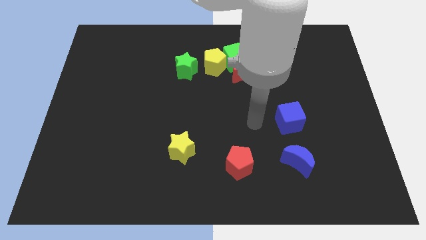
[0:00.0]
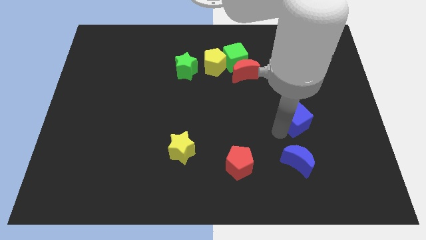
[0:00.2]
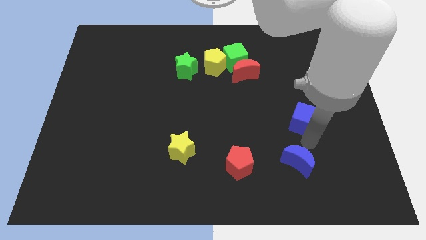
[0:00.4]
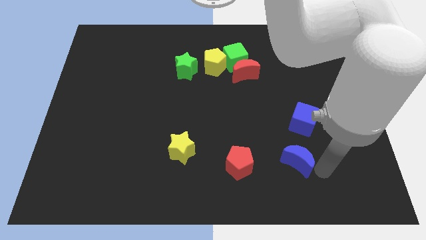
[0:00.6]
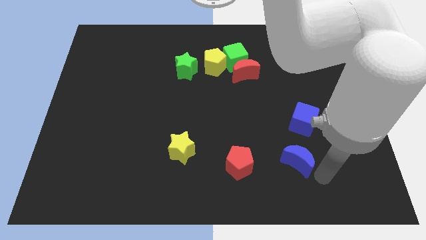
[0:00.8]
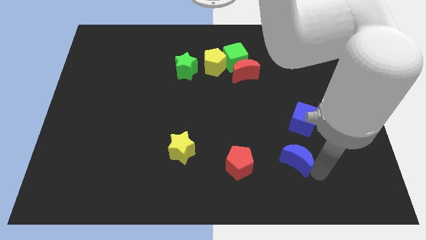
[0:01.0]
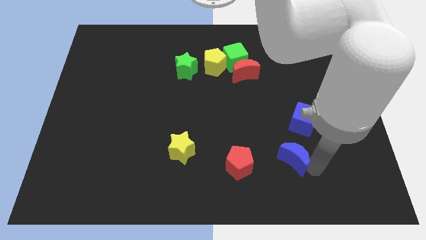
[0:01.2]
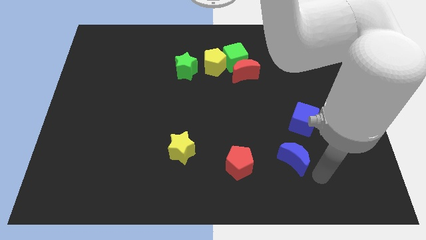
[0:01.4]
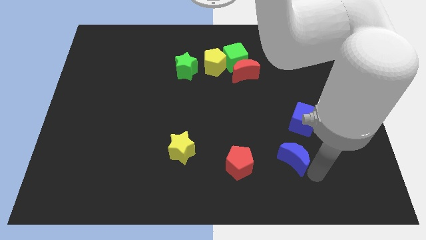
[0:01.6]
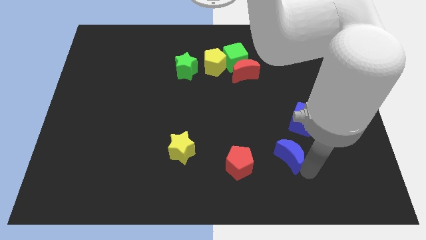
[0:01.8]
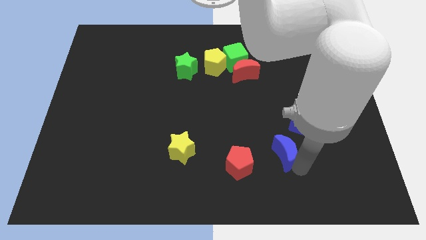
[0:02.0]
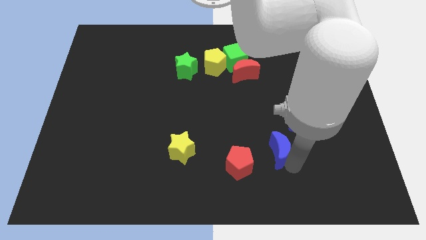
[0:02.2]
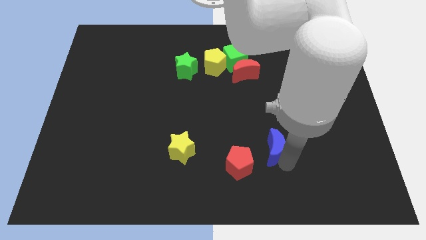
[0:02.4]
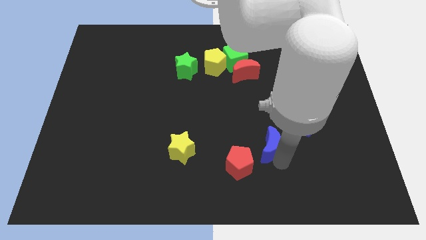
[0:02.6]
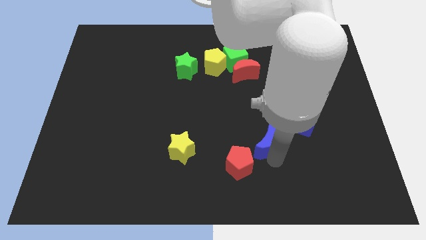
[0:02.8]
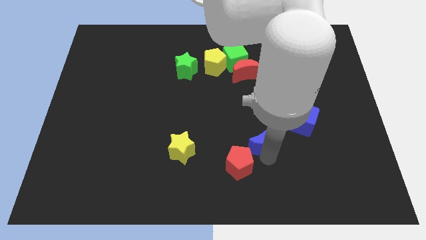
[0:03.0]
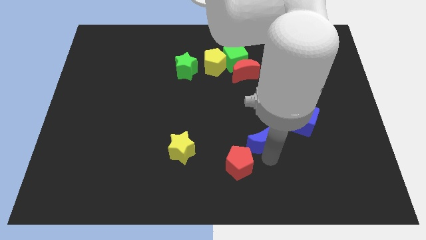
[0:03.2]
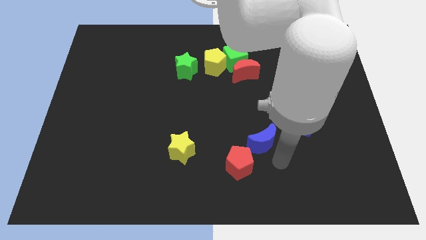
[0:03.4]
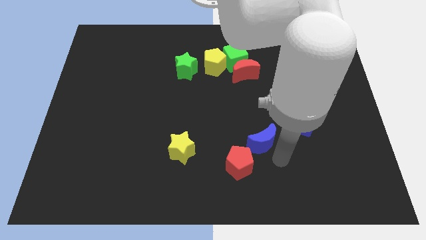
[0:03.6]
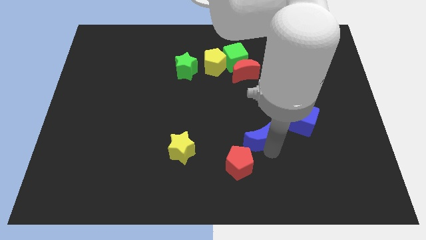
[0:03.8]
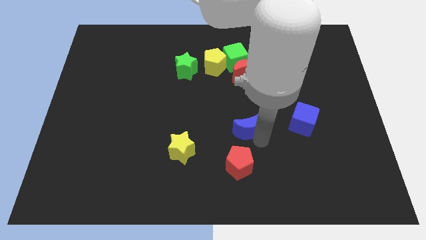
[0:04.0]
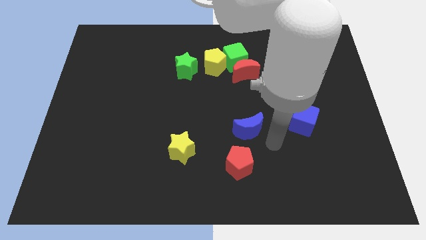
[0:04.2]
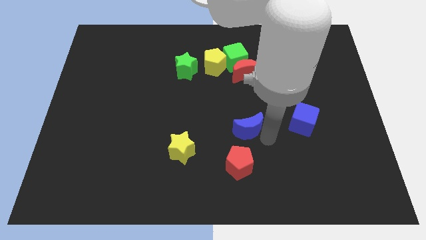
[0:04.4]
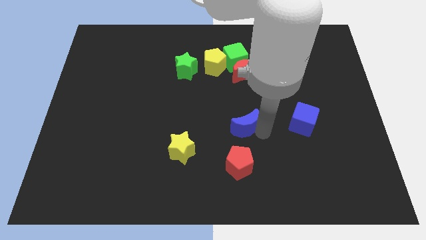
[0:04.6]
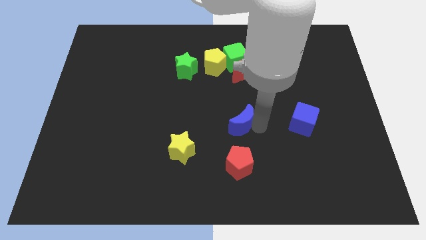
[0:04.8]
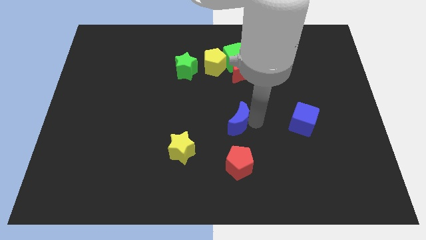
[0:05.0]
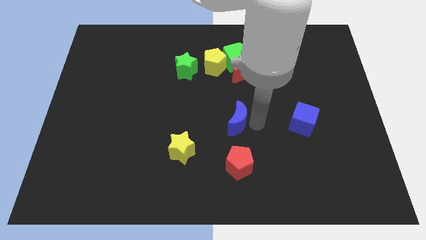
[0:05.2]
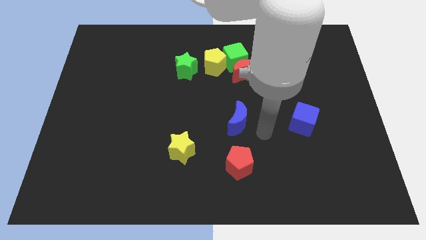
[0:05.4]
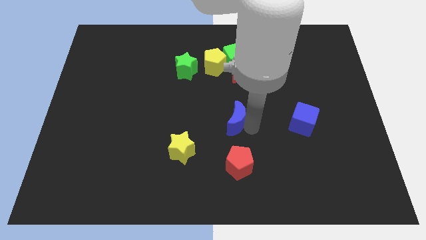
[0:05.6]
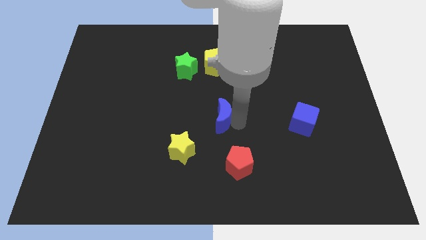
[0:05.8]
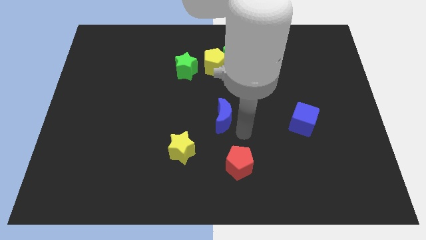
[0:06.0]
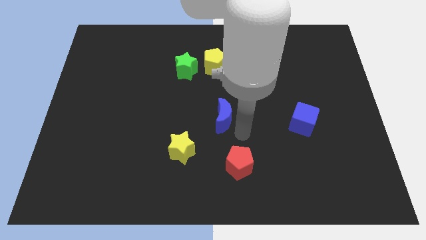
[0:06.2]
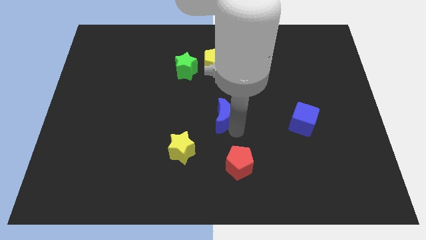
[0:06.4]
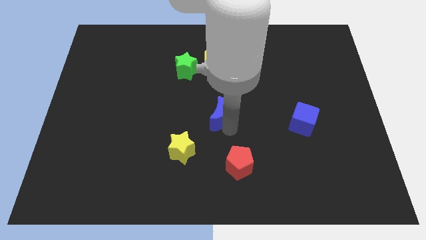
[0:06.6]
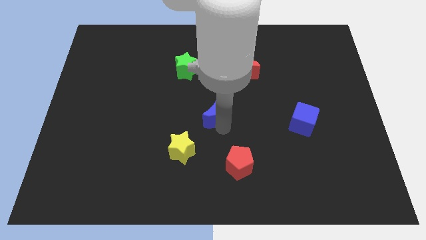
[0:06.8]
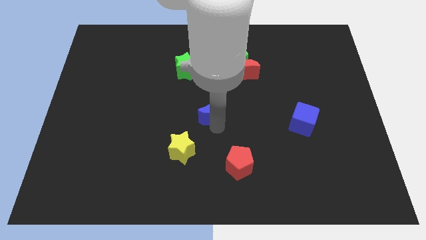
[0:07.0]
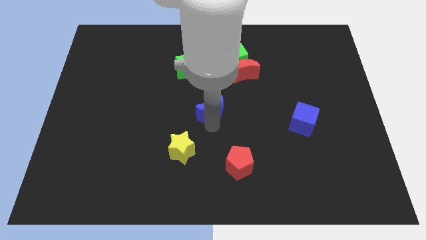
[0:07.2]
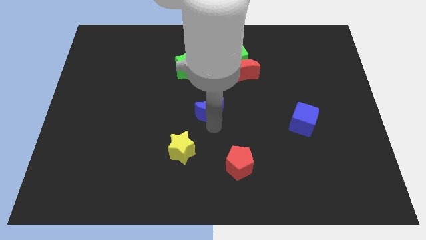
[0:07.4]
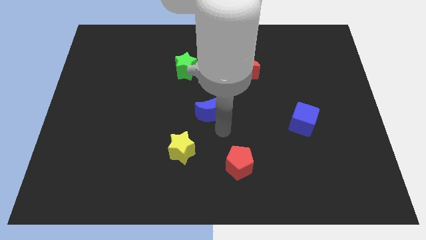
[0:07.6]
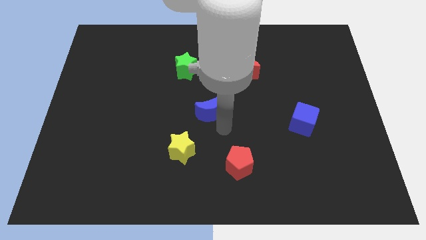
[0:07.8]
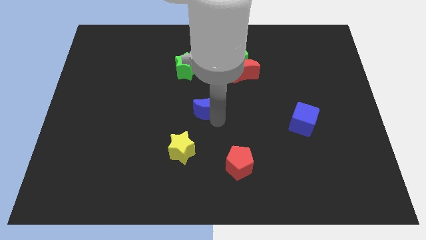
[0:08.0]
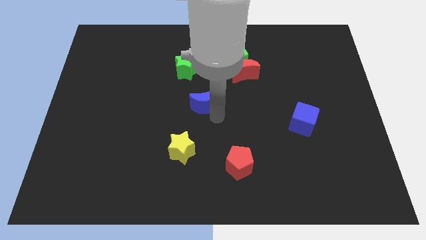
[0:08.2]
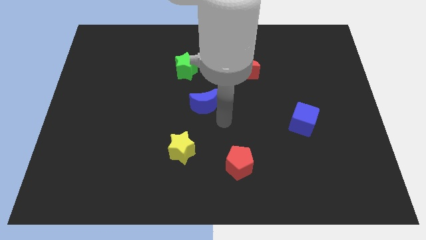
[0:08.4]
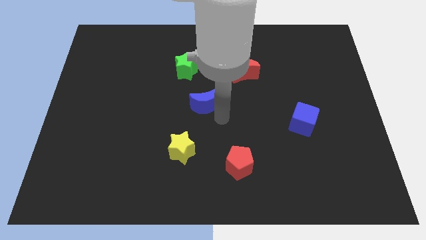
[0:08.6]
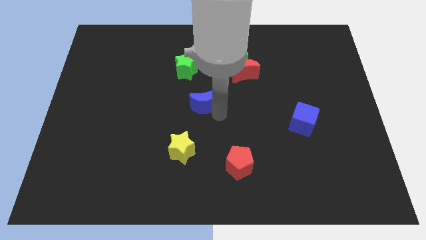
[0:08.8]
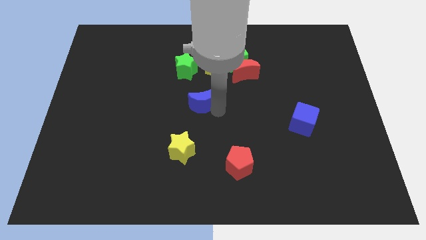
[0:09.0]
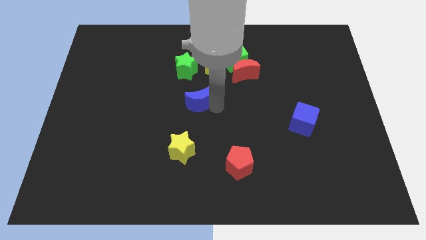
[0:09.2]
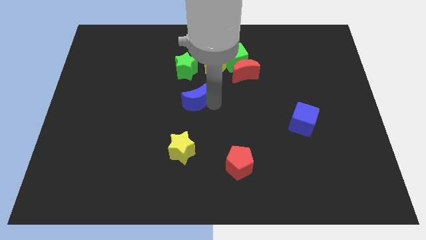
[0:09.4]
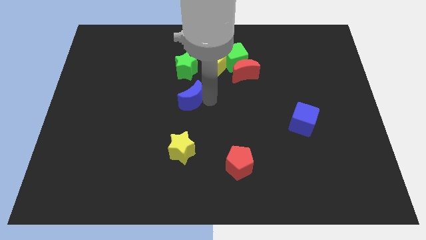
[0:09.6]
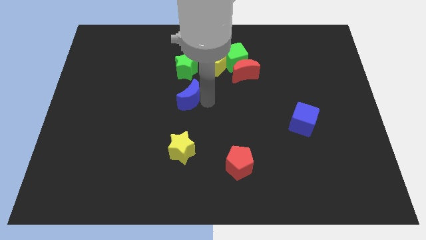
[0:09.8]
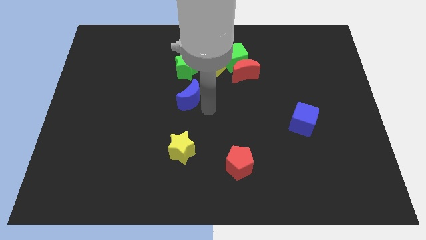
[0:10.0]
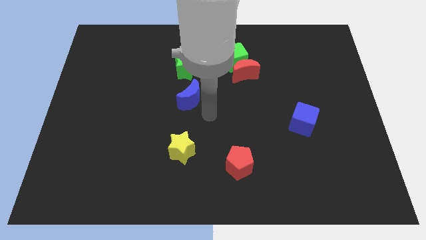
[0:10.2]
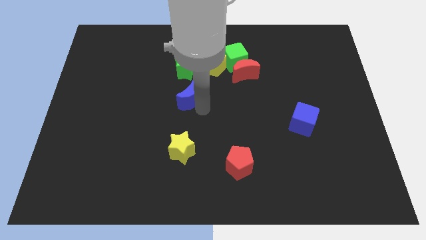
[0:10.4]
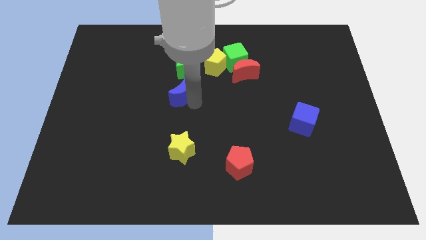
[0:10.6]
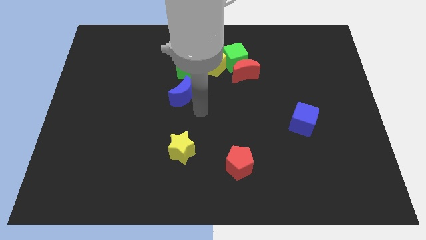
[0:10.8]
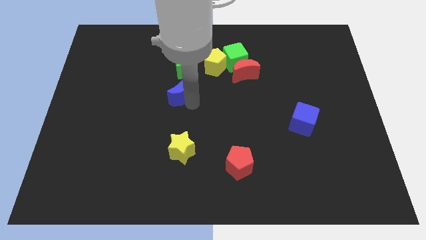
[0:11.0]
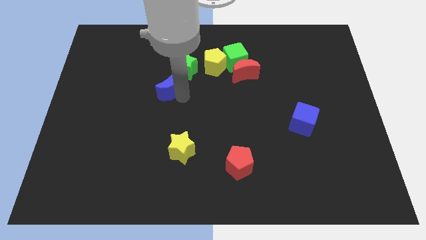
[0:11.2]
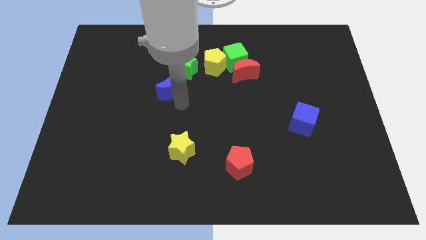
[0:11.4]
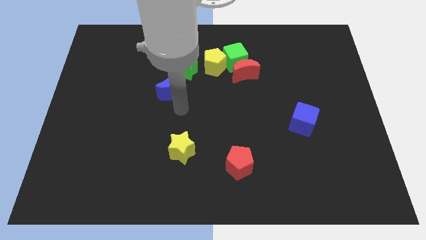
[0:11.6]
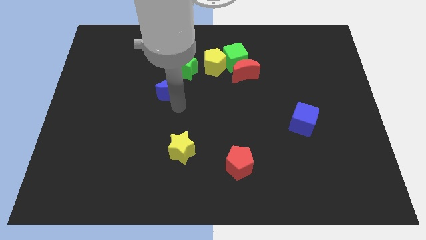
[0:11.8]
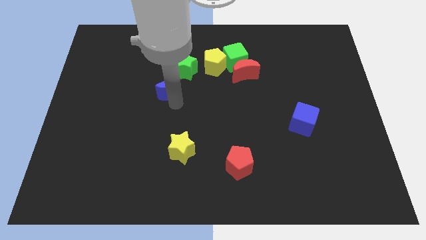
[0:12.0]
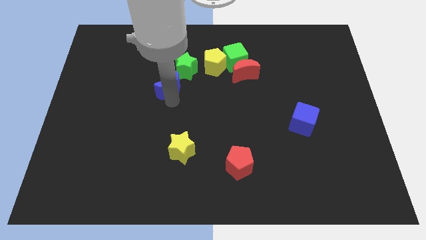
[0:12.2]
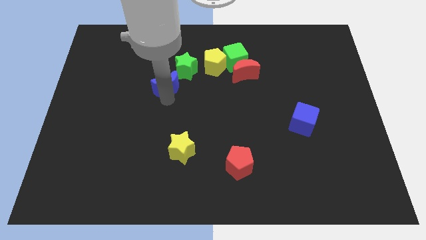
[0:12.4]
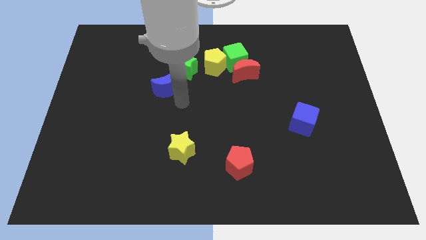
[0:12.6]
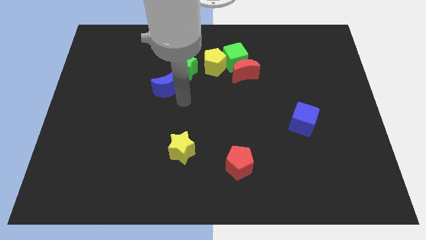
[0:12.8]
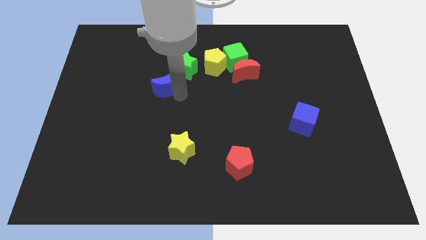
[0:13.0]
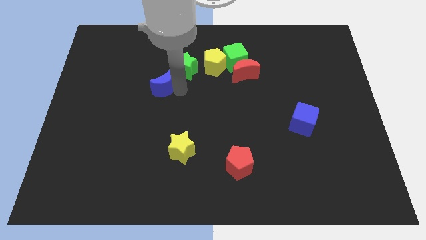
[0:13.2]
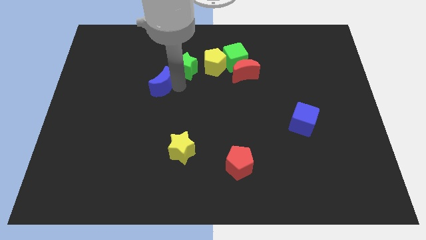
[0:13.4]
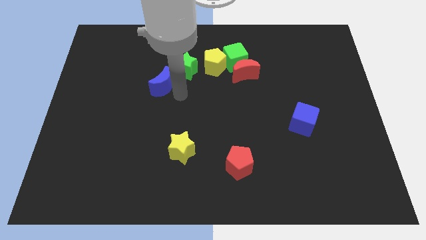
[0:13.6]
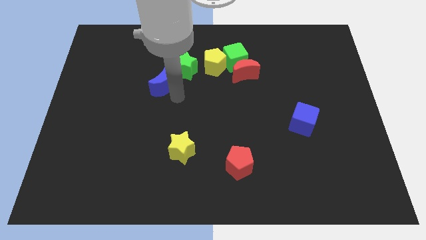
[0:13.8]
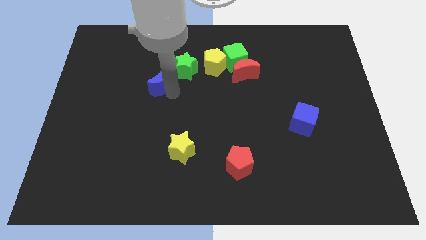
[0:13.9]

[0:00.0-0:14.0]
put the blue moon to the left side of the green star
